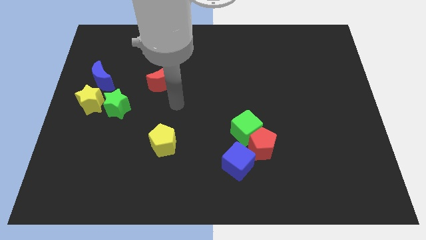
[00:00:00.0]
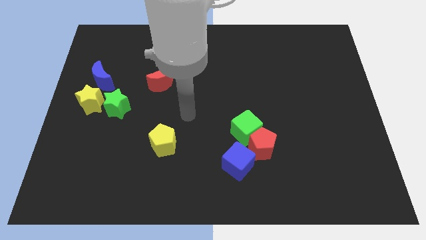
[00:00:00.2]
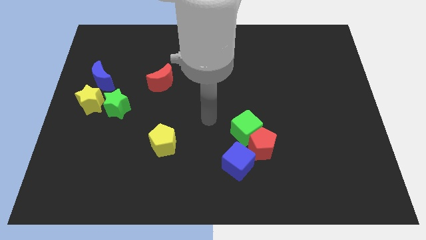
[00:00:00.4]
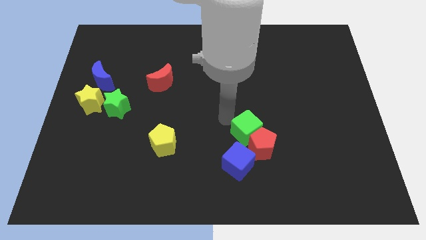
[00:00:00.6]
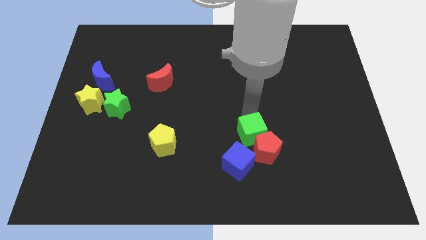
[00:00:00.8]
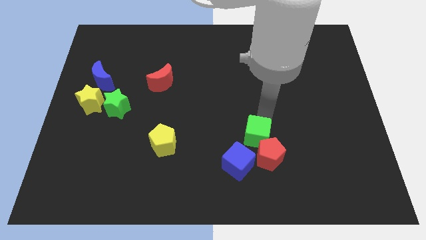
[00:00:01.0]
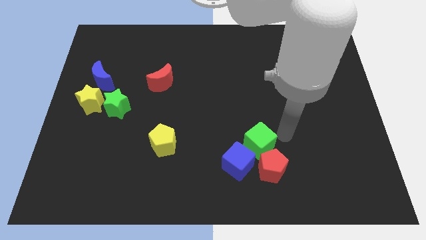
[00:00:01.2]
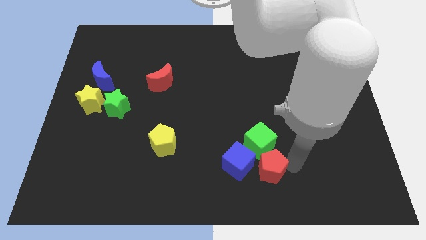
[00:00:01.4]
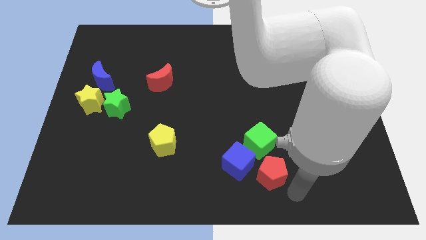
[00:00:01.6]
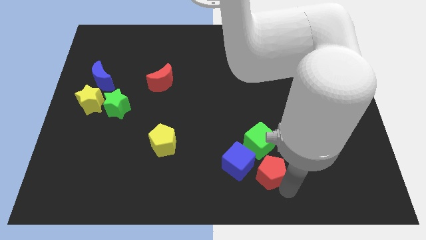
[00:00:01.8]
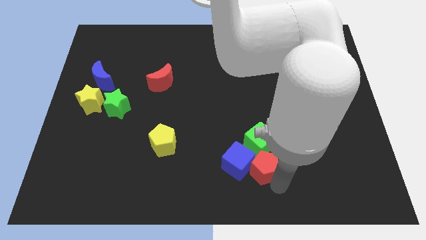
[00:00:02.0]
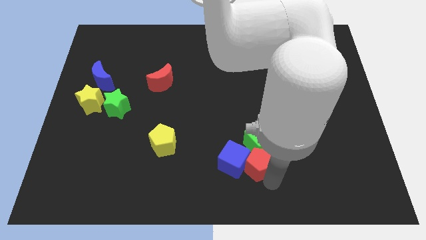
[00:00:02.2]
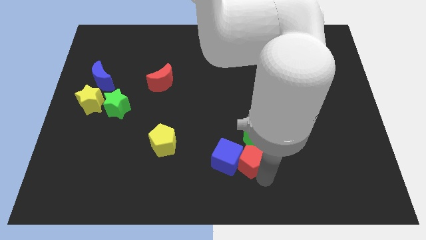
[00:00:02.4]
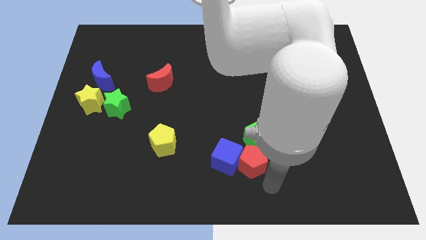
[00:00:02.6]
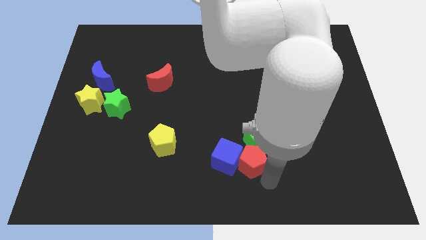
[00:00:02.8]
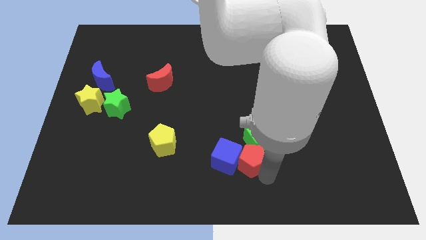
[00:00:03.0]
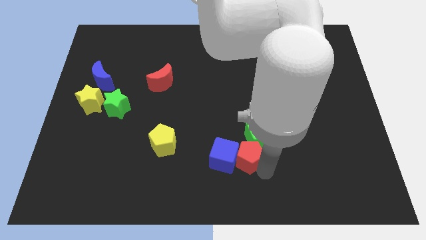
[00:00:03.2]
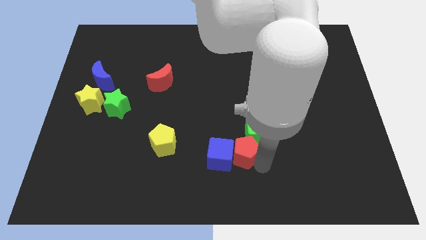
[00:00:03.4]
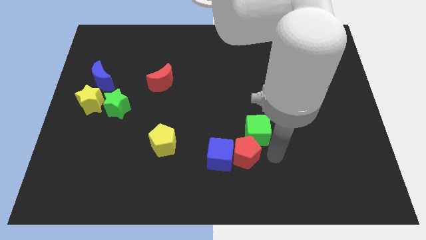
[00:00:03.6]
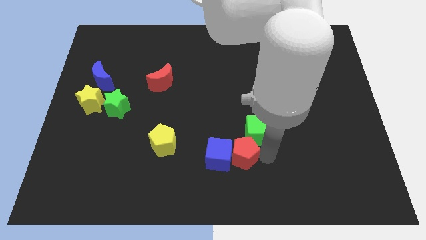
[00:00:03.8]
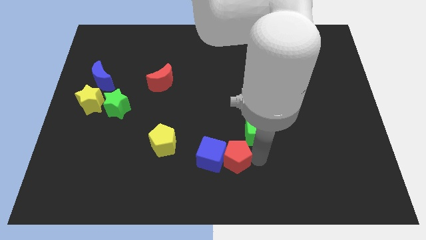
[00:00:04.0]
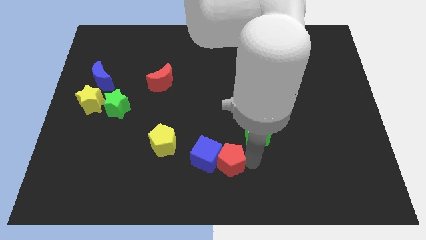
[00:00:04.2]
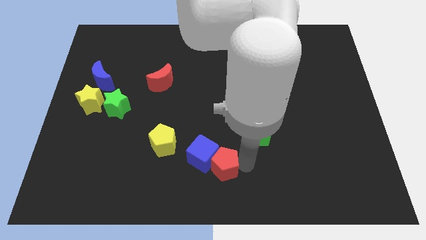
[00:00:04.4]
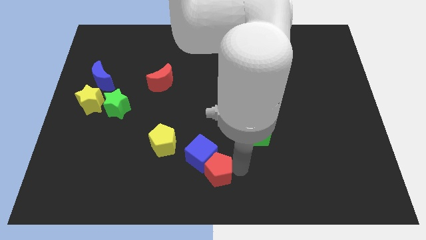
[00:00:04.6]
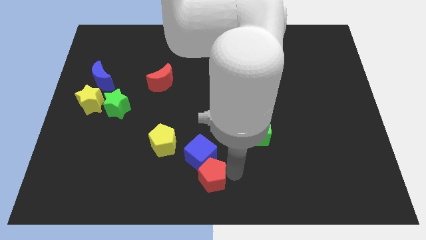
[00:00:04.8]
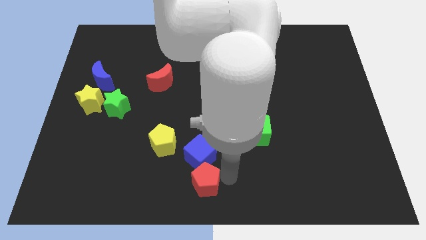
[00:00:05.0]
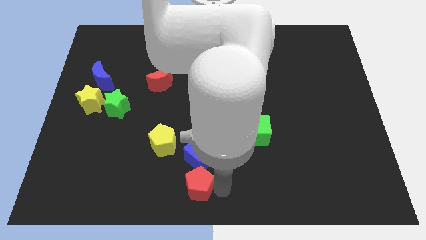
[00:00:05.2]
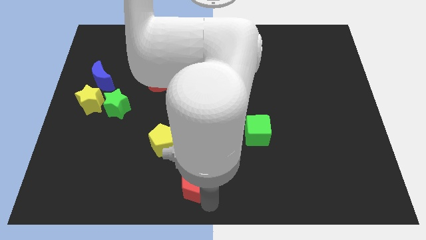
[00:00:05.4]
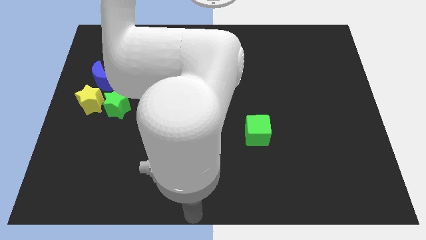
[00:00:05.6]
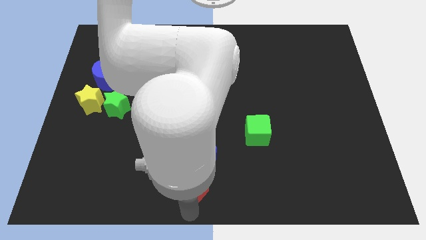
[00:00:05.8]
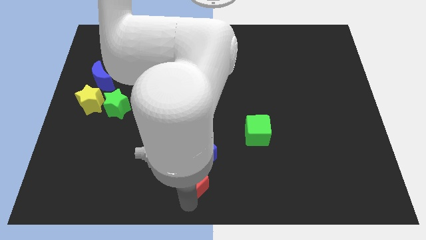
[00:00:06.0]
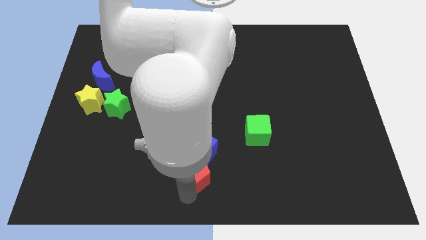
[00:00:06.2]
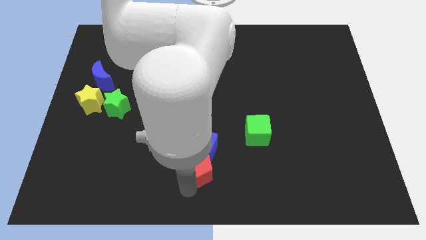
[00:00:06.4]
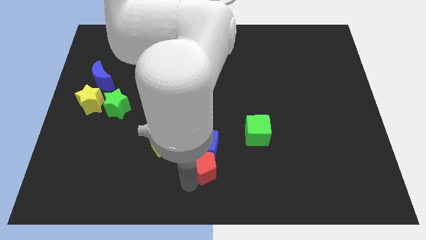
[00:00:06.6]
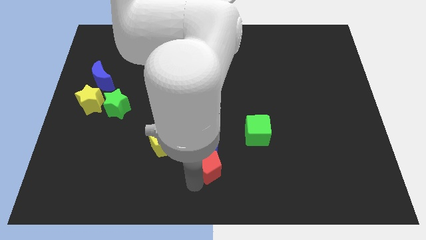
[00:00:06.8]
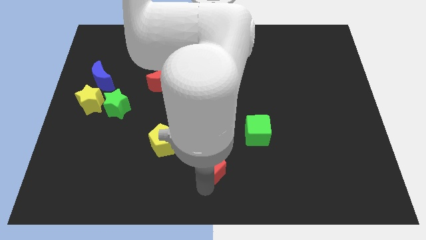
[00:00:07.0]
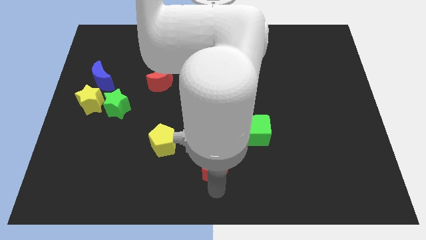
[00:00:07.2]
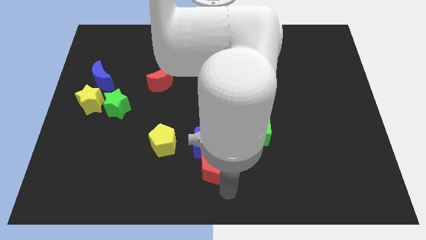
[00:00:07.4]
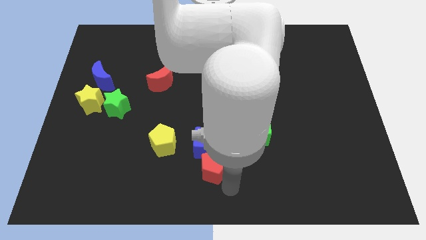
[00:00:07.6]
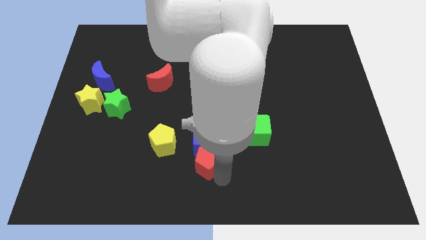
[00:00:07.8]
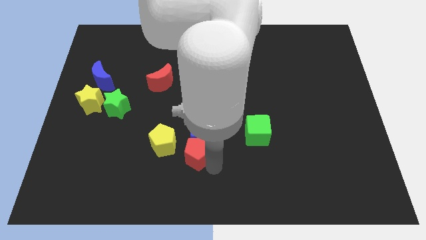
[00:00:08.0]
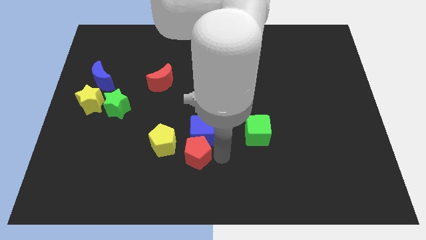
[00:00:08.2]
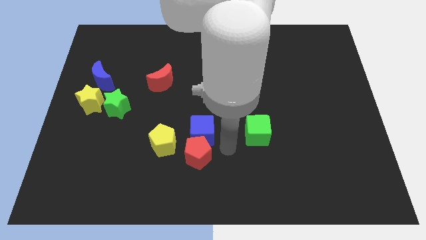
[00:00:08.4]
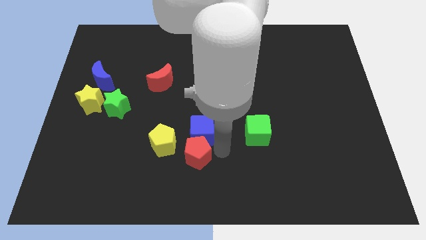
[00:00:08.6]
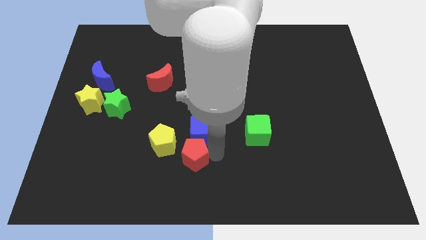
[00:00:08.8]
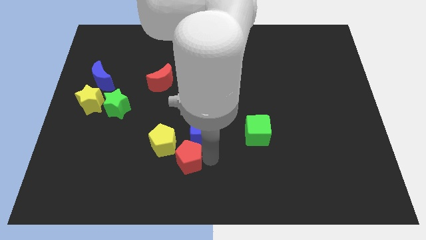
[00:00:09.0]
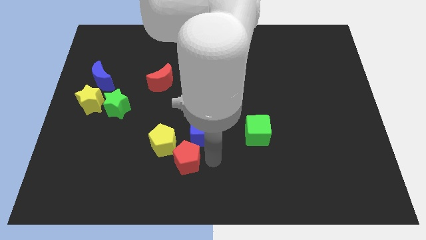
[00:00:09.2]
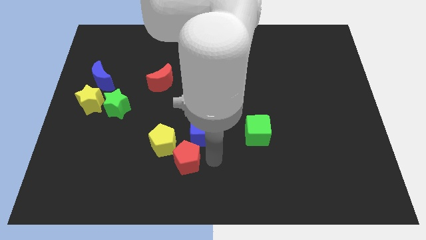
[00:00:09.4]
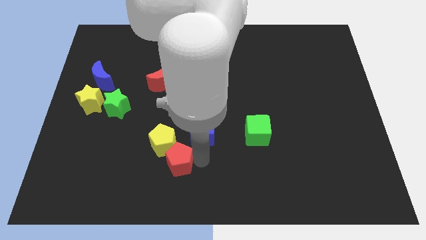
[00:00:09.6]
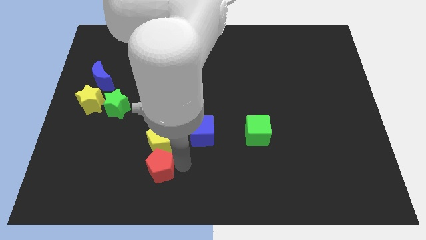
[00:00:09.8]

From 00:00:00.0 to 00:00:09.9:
slide the red pentagon left

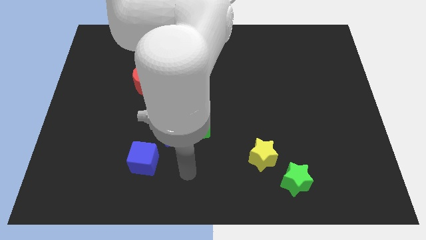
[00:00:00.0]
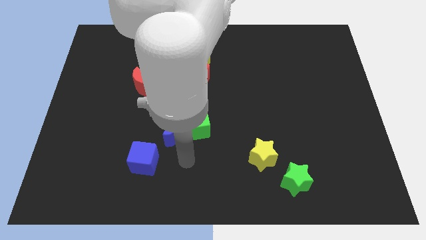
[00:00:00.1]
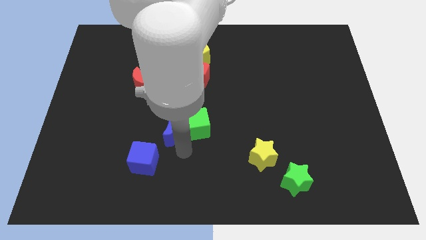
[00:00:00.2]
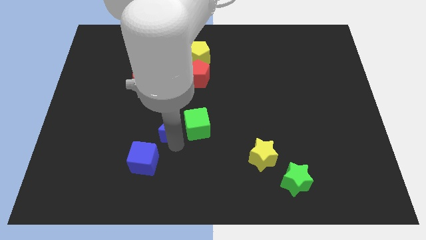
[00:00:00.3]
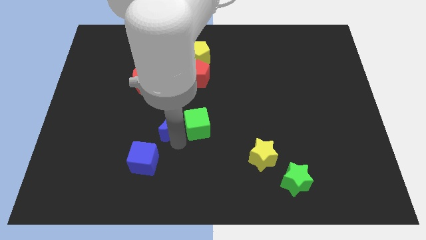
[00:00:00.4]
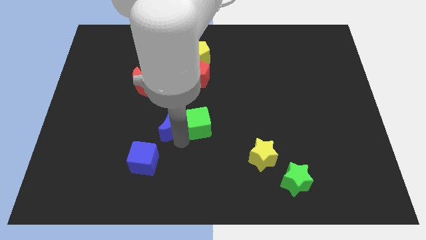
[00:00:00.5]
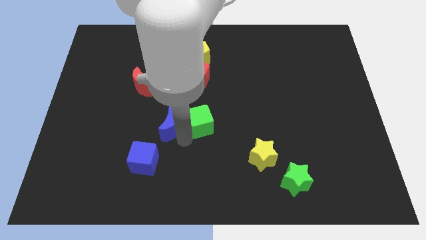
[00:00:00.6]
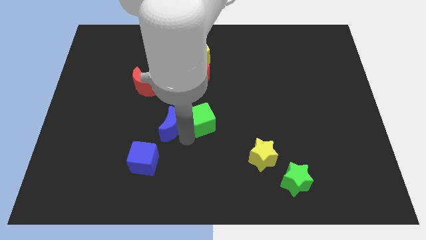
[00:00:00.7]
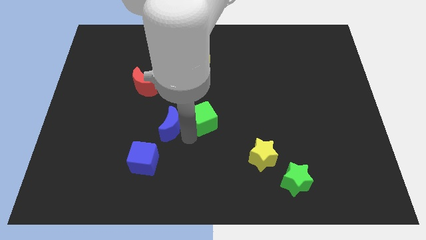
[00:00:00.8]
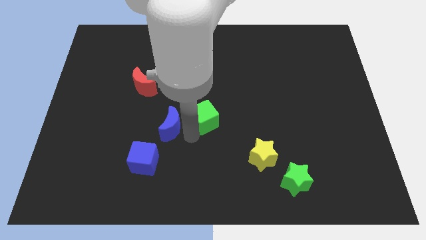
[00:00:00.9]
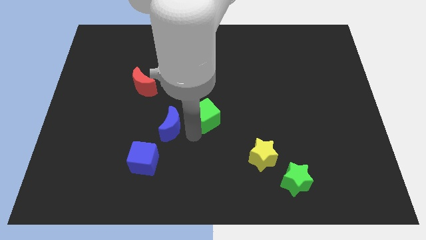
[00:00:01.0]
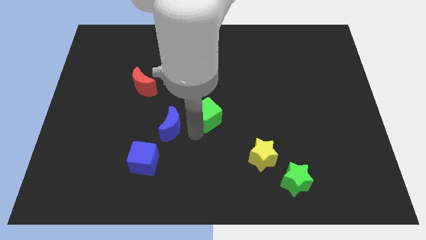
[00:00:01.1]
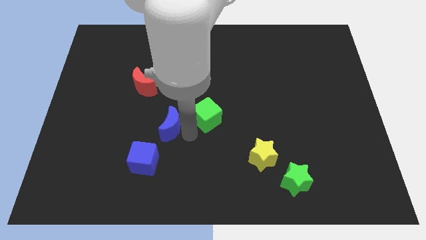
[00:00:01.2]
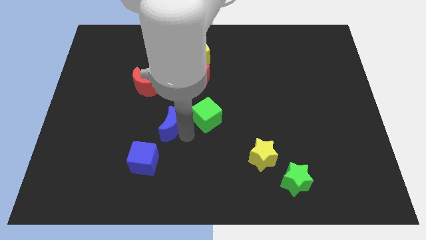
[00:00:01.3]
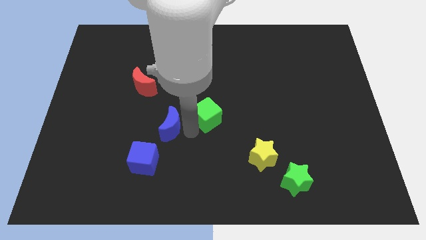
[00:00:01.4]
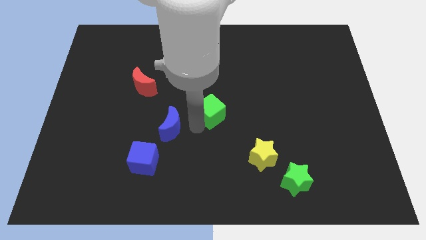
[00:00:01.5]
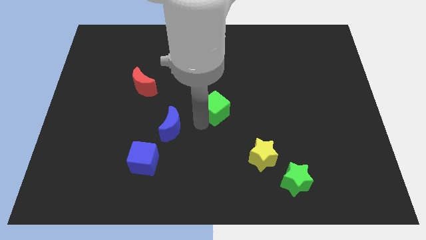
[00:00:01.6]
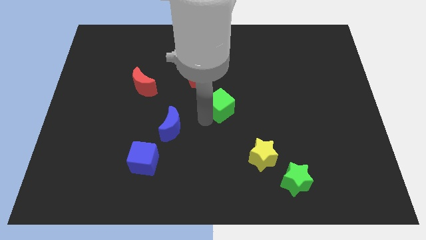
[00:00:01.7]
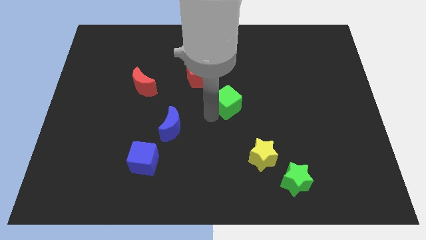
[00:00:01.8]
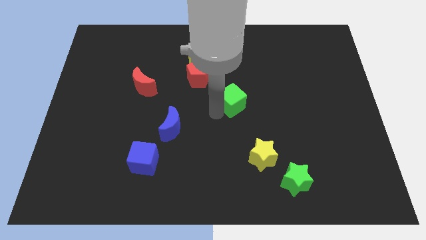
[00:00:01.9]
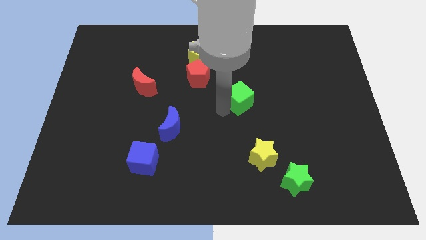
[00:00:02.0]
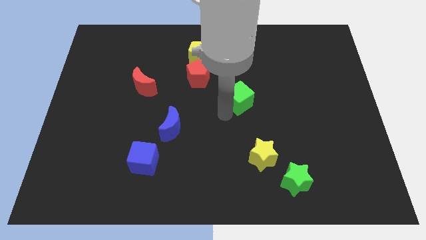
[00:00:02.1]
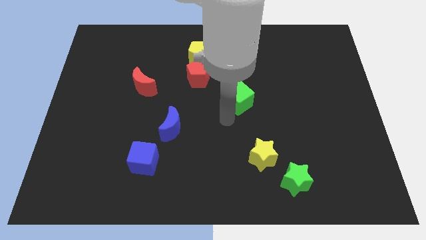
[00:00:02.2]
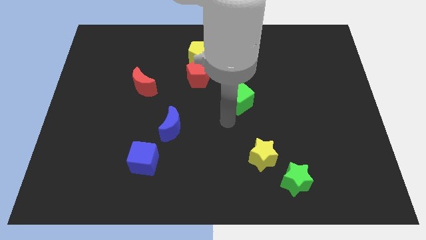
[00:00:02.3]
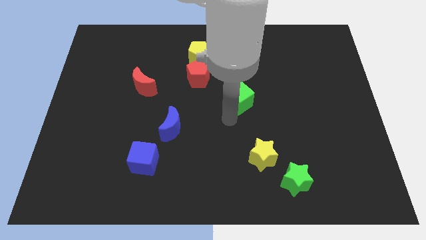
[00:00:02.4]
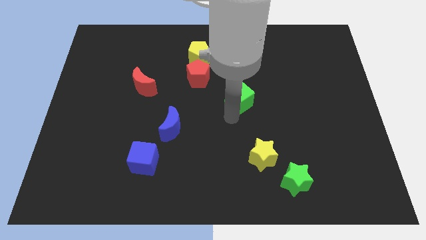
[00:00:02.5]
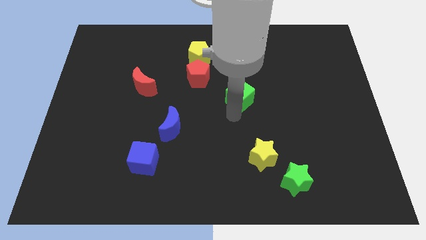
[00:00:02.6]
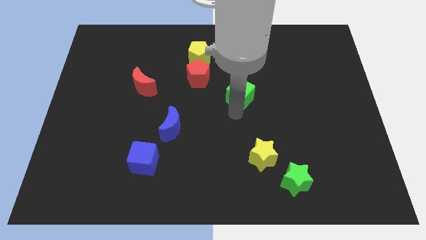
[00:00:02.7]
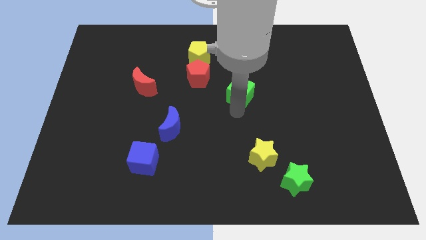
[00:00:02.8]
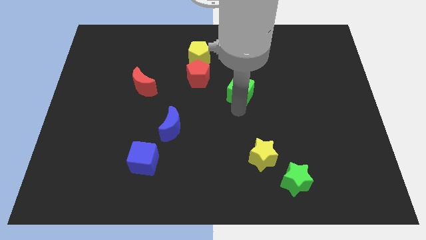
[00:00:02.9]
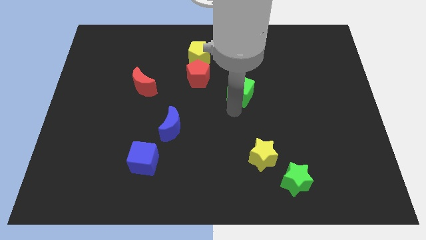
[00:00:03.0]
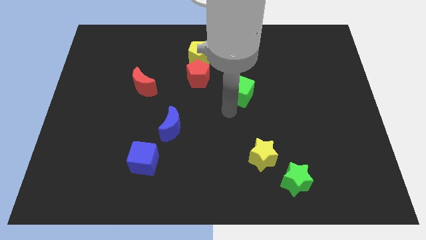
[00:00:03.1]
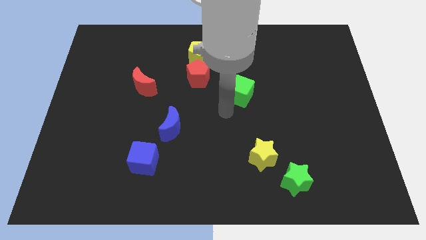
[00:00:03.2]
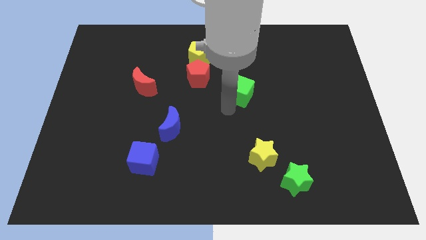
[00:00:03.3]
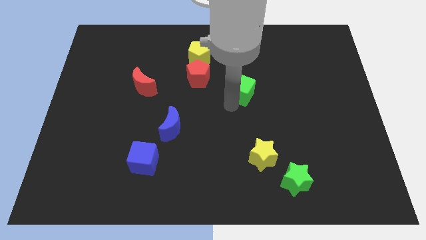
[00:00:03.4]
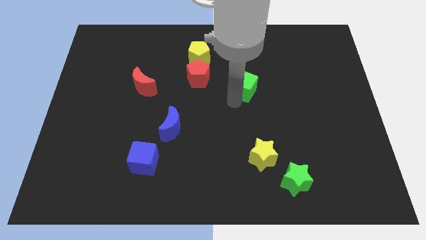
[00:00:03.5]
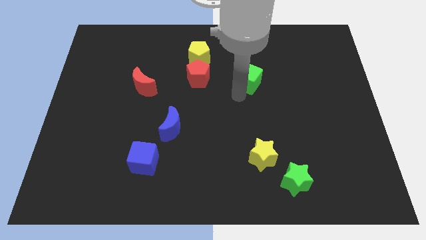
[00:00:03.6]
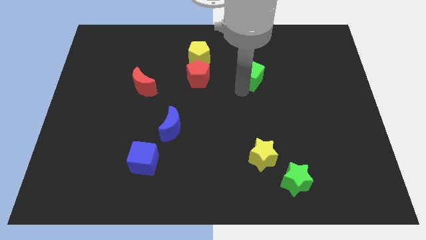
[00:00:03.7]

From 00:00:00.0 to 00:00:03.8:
slide the green cube diagonally upwards and to the right
